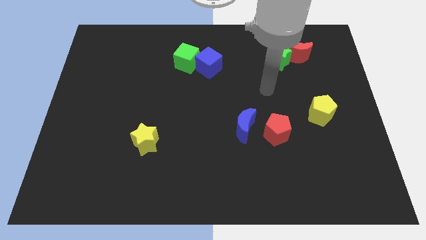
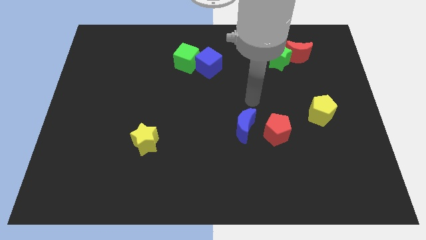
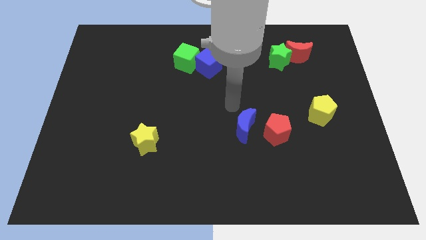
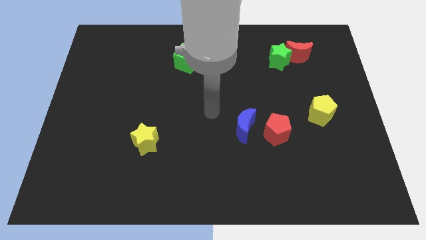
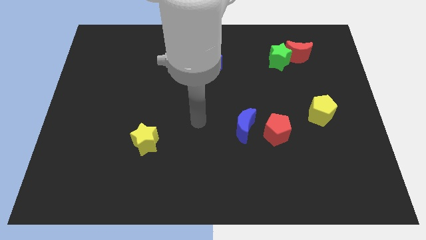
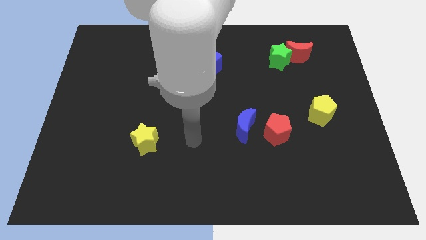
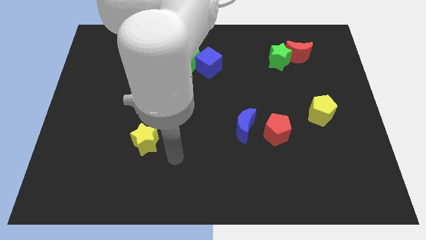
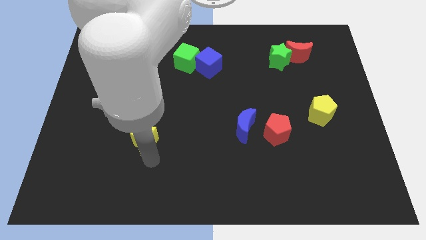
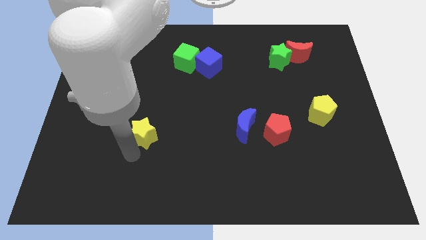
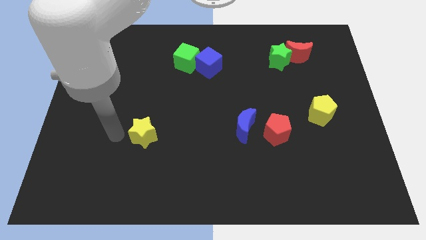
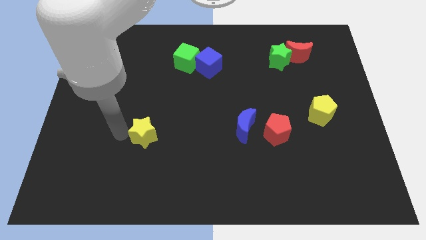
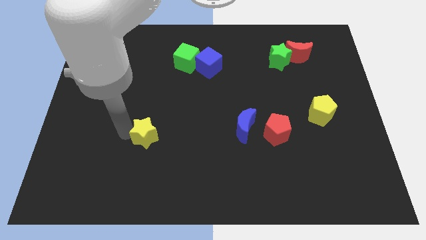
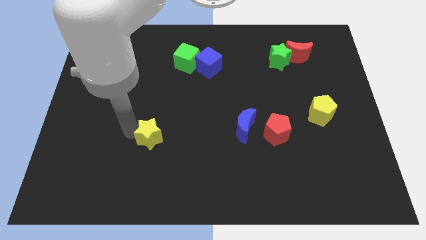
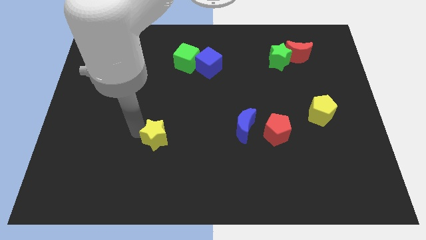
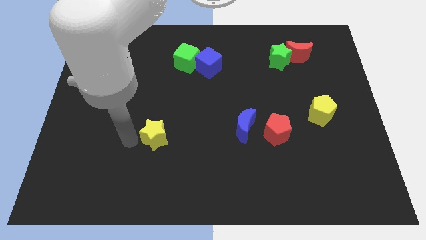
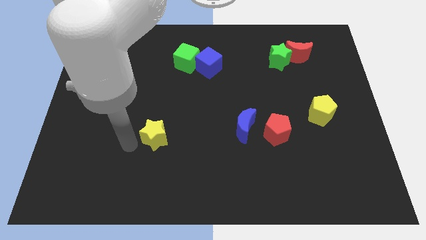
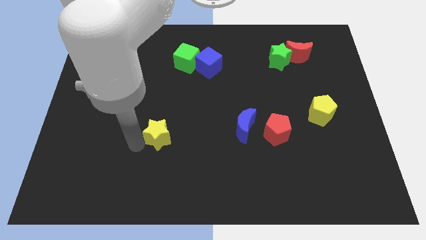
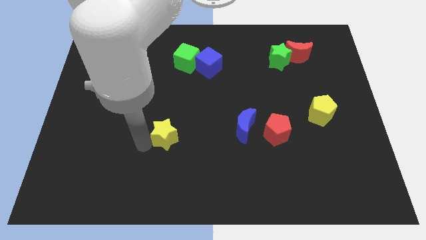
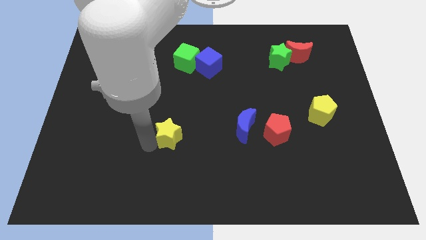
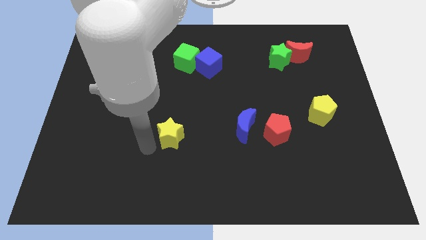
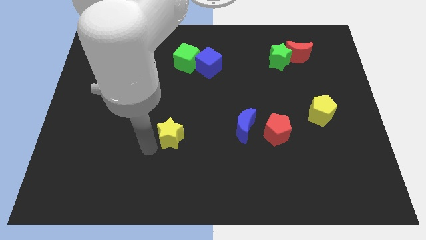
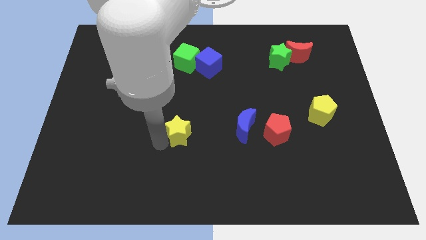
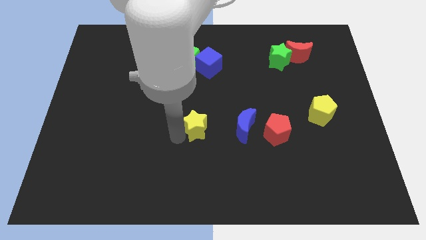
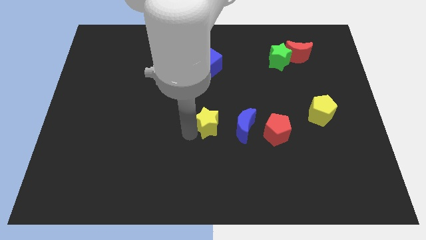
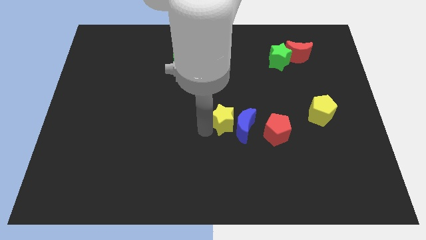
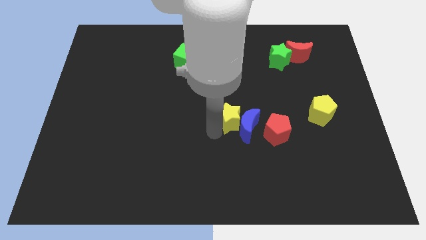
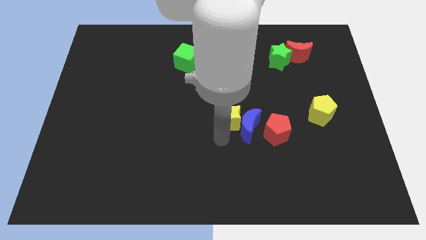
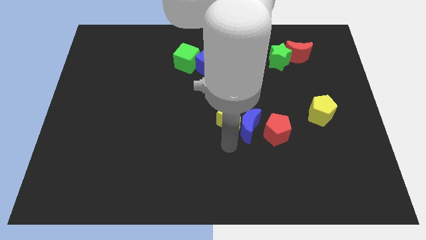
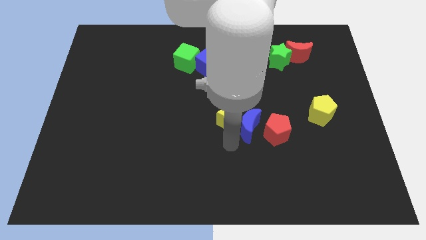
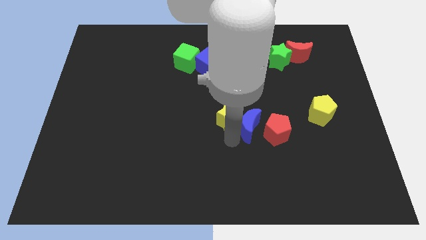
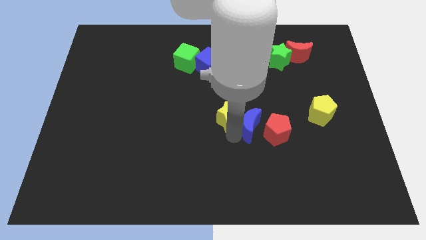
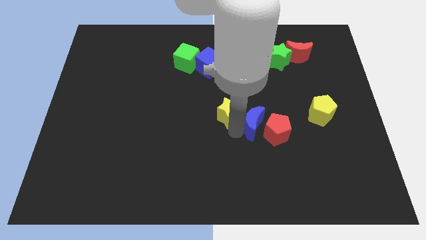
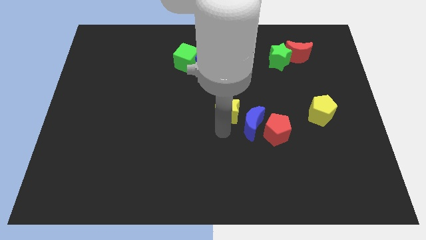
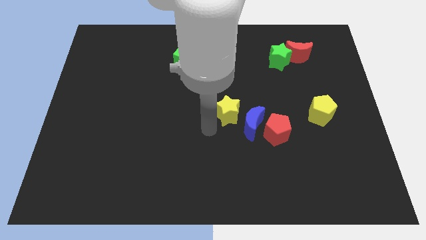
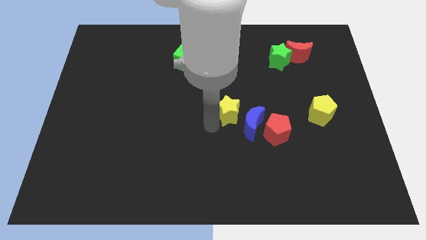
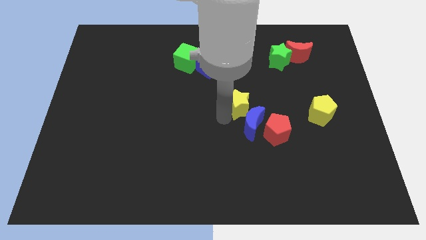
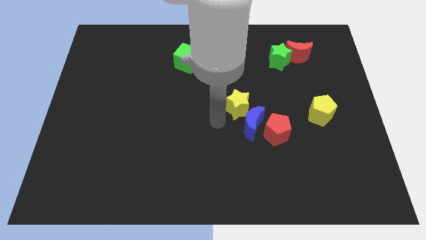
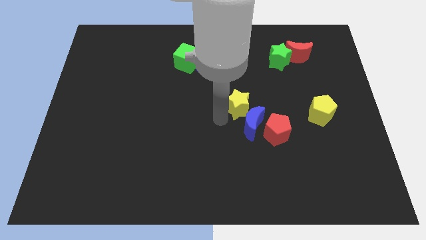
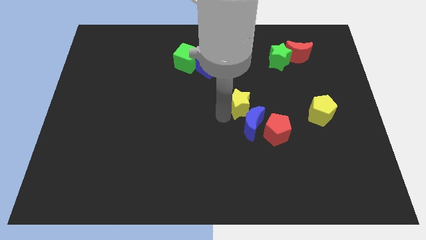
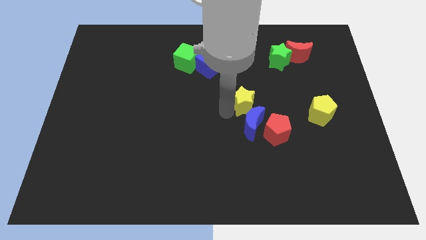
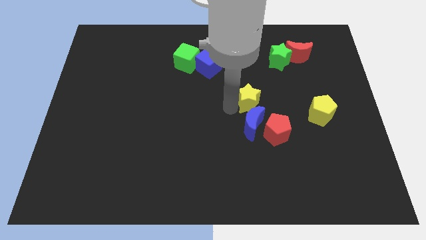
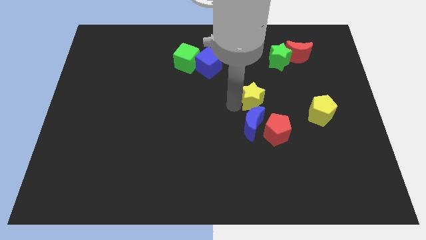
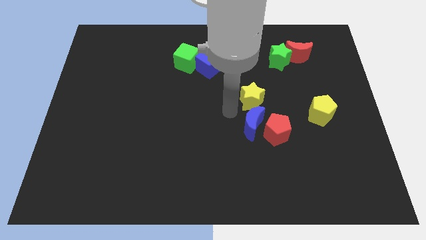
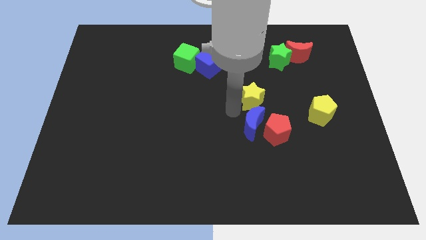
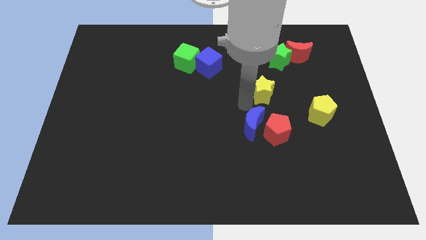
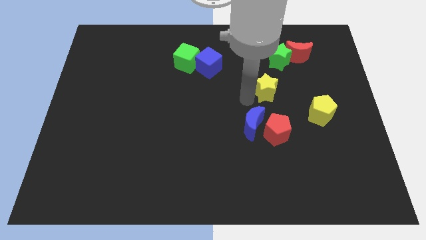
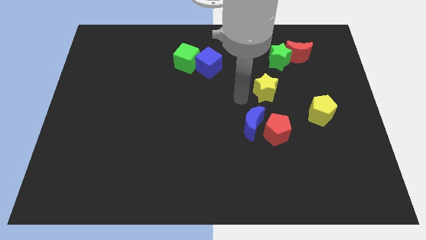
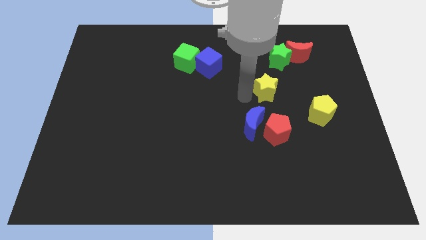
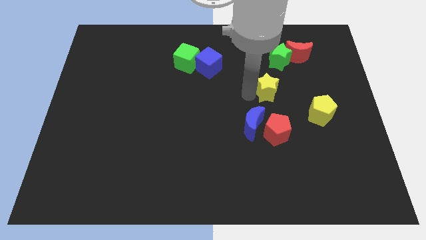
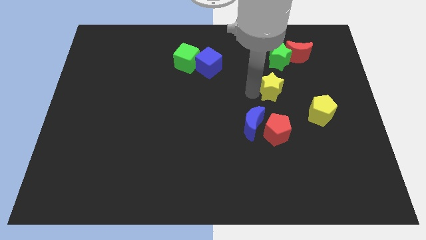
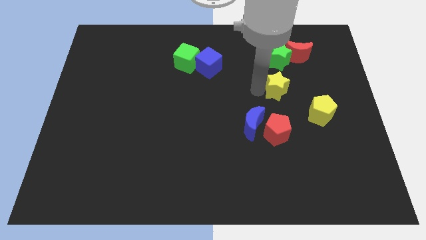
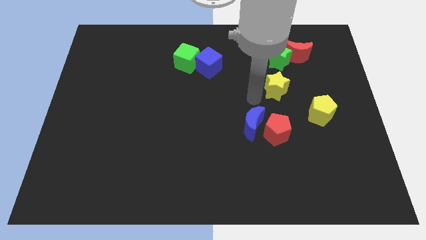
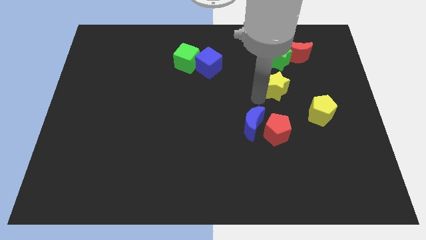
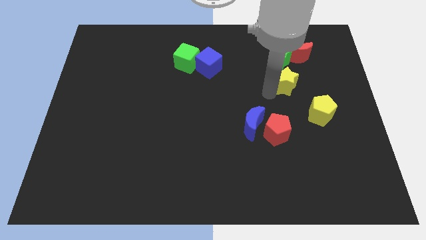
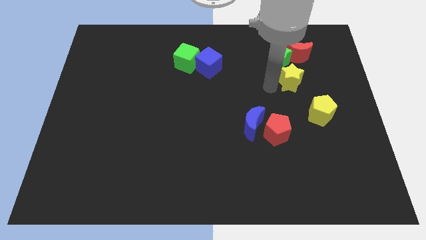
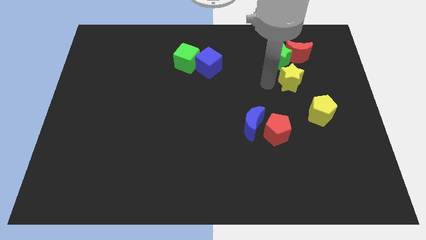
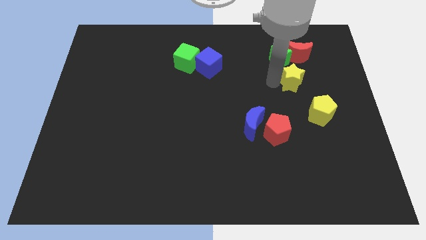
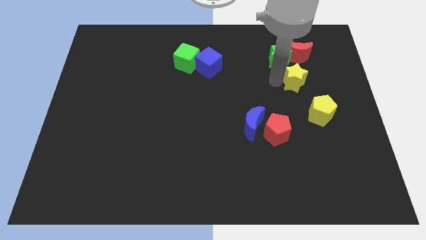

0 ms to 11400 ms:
slide the yellow star to the top of the yellow pentagon

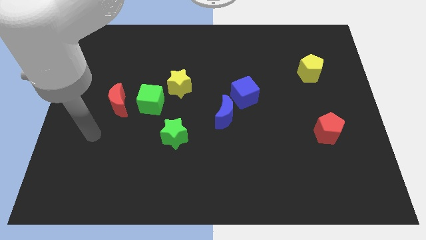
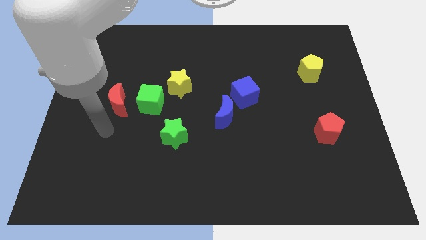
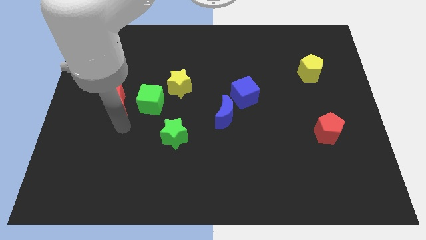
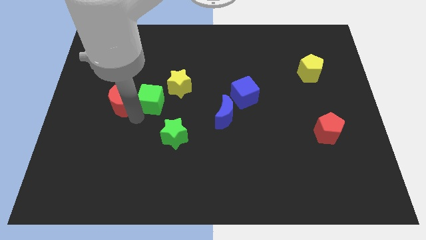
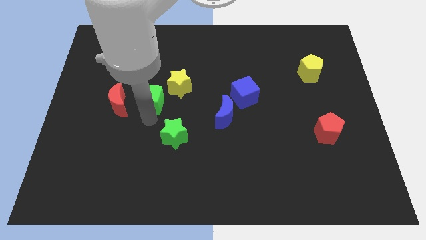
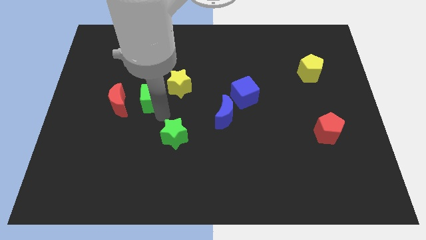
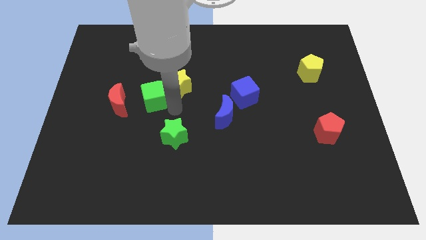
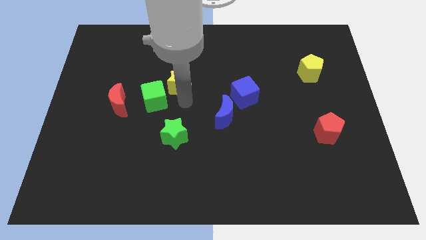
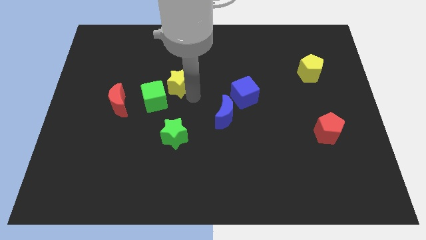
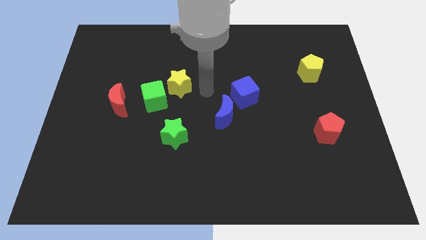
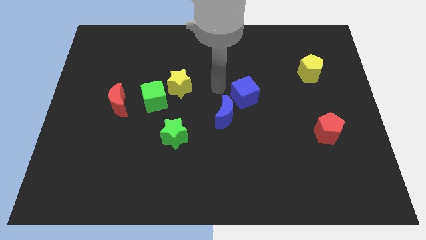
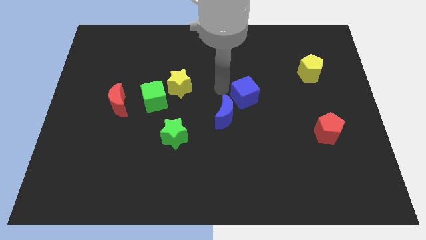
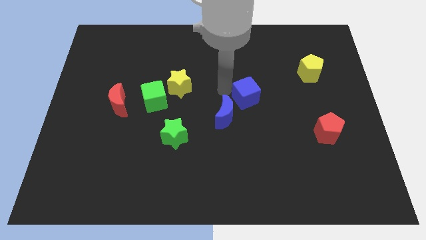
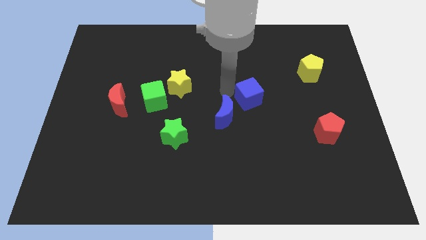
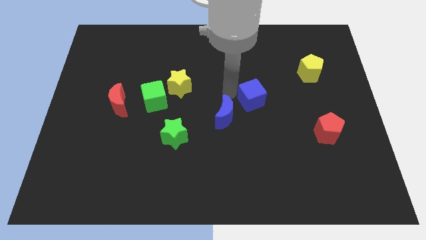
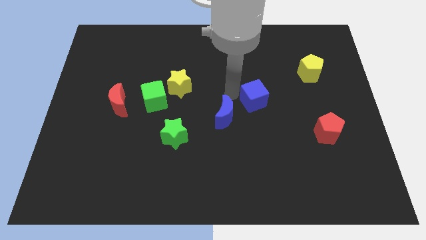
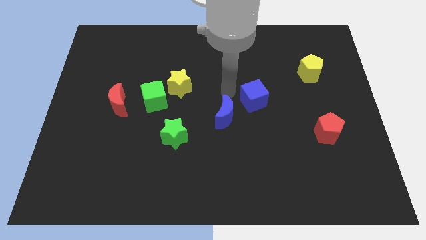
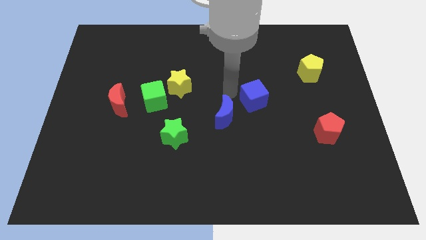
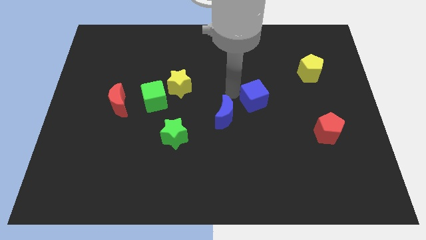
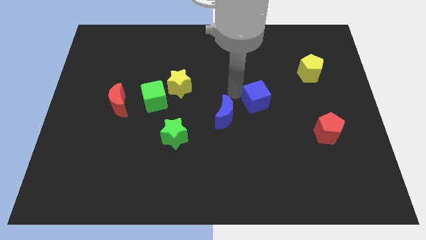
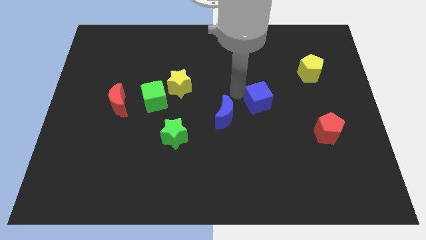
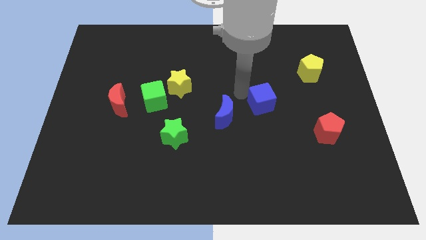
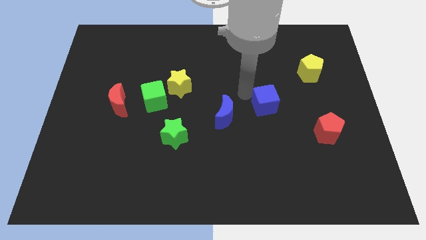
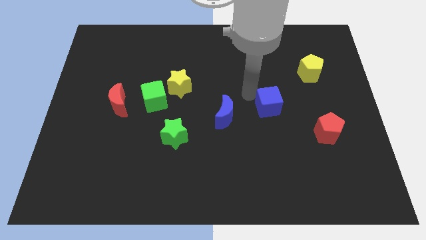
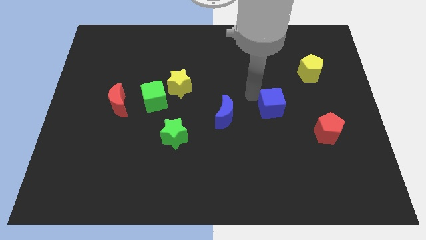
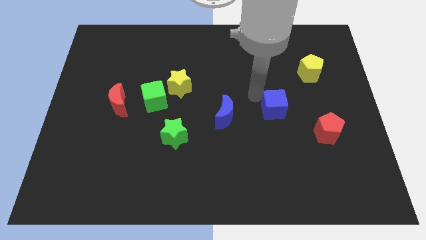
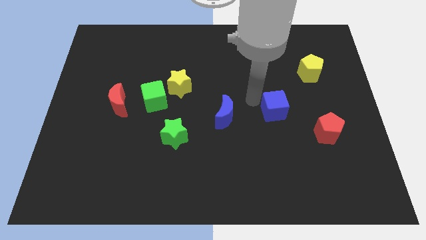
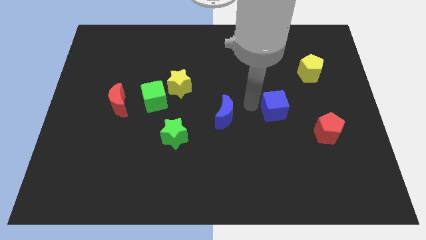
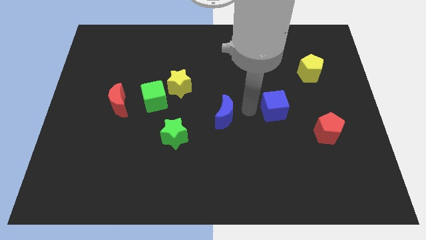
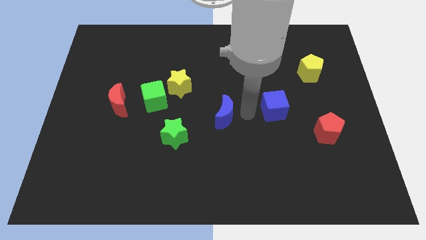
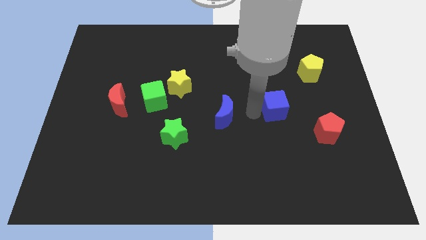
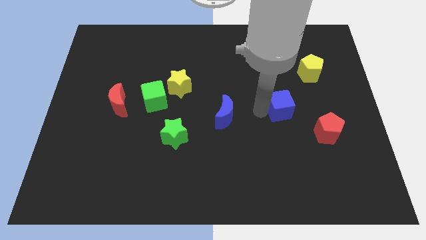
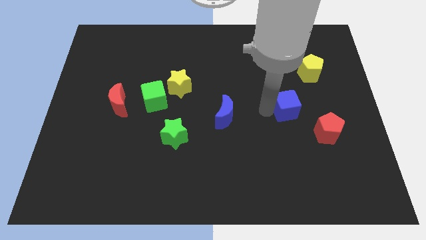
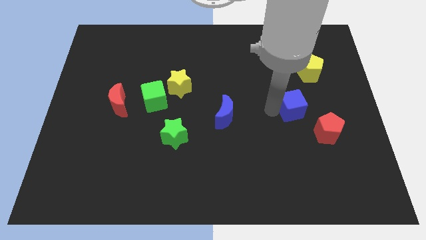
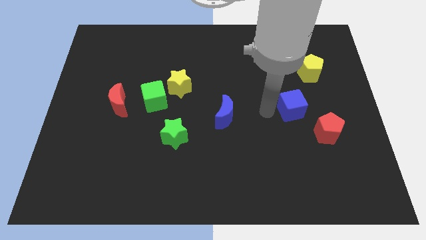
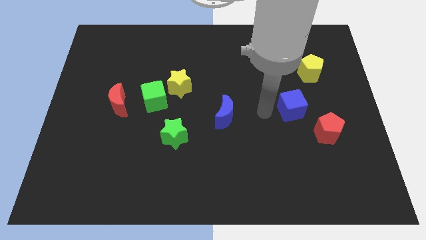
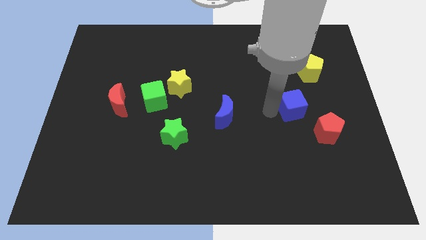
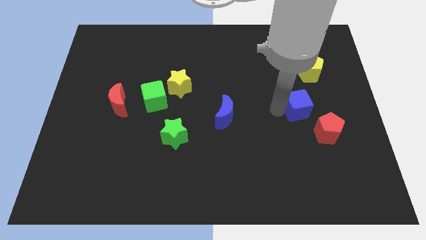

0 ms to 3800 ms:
slide the blue cube to the bottom side of the yellow pentagon
